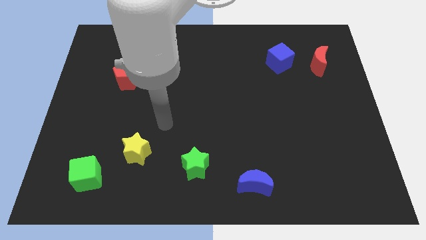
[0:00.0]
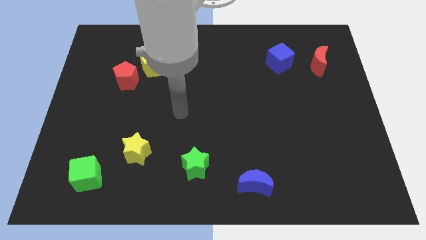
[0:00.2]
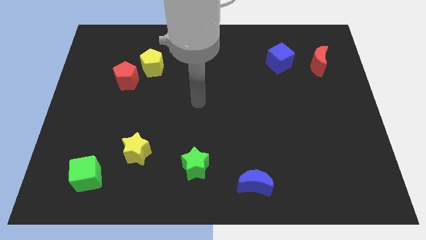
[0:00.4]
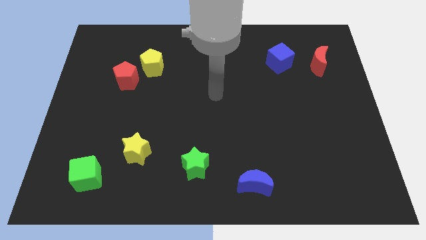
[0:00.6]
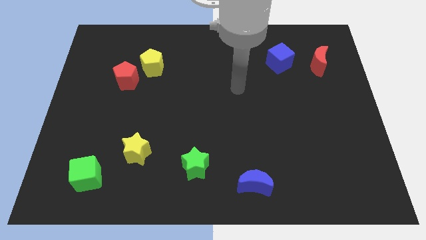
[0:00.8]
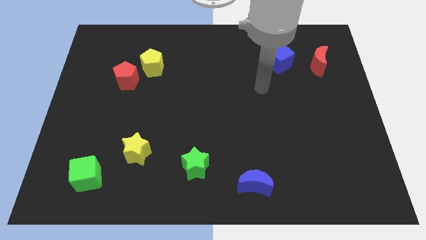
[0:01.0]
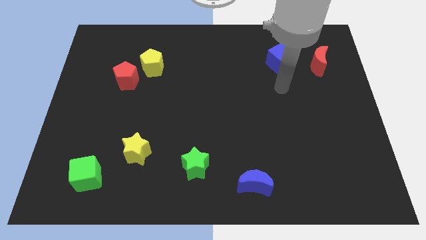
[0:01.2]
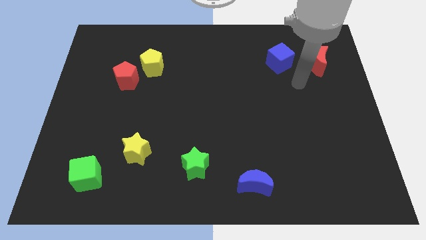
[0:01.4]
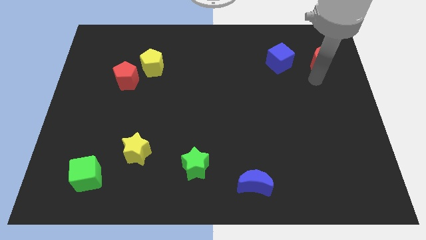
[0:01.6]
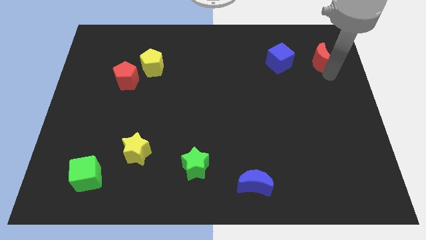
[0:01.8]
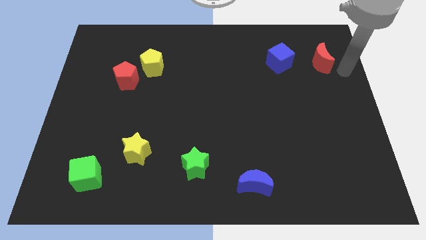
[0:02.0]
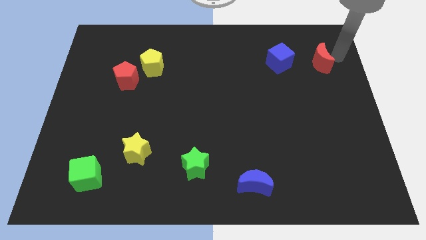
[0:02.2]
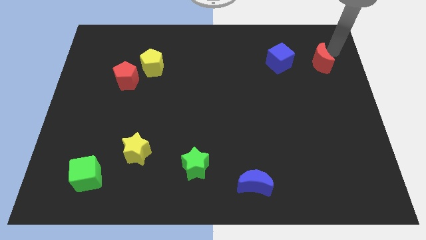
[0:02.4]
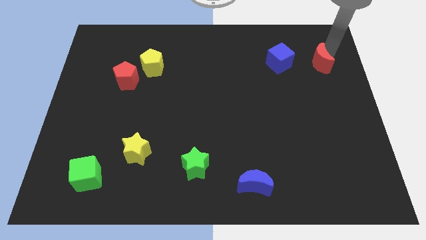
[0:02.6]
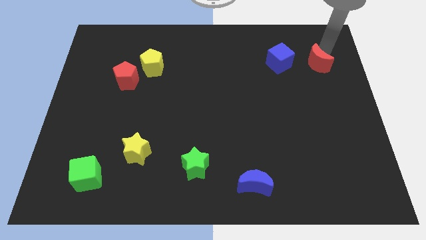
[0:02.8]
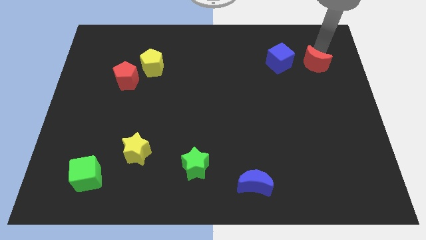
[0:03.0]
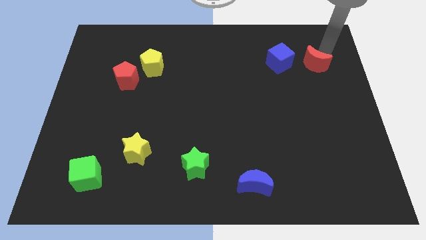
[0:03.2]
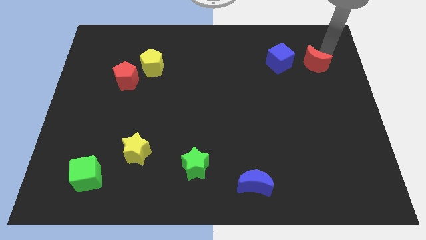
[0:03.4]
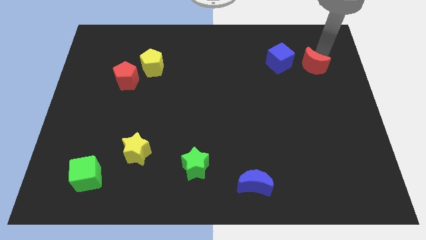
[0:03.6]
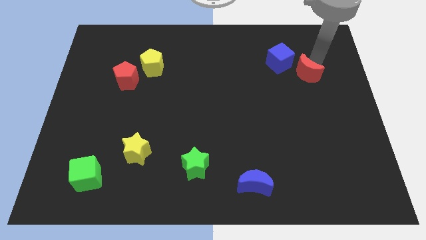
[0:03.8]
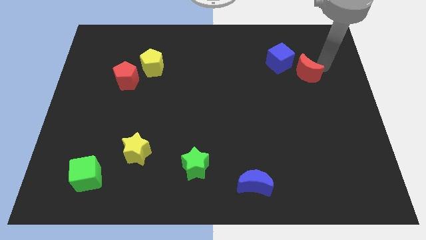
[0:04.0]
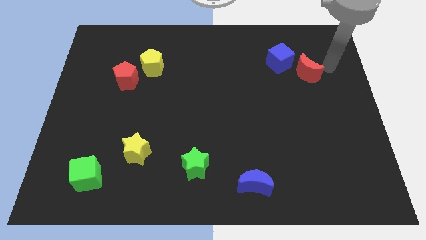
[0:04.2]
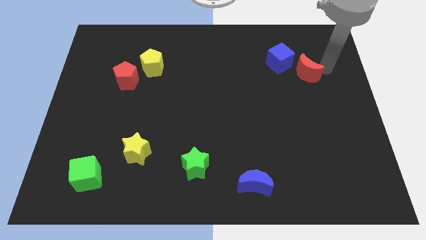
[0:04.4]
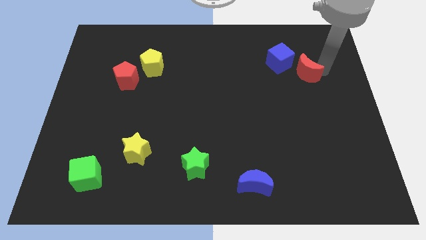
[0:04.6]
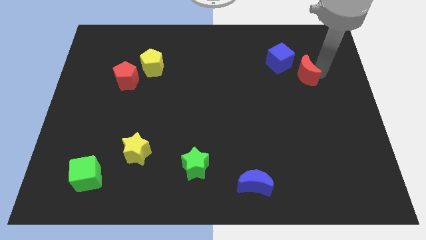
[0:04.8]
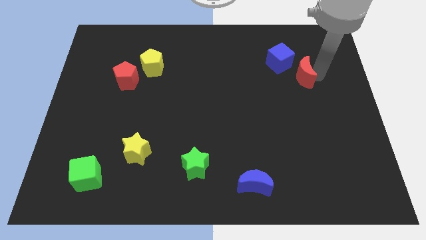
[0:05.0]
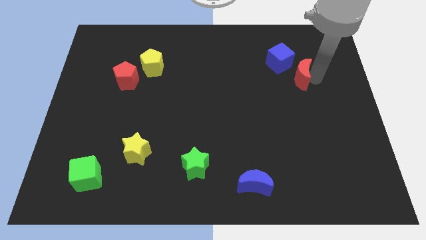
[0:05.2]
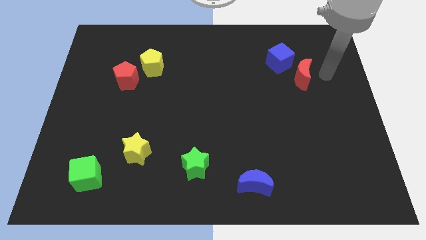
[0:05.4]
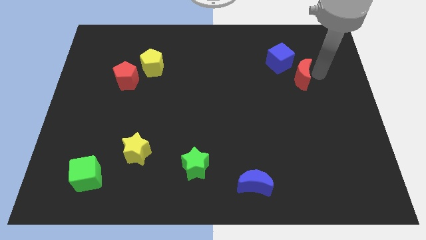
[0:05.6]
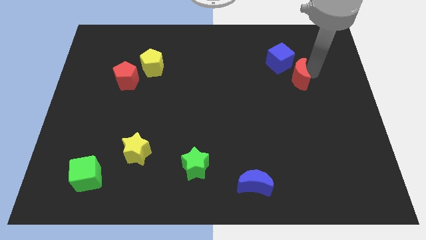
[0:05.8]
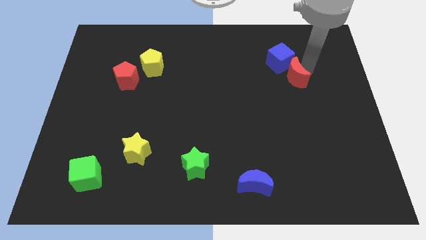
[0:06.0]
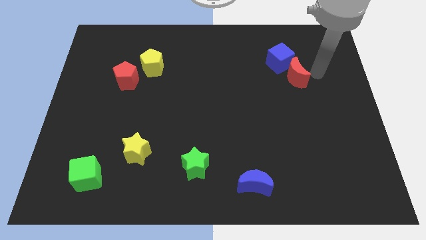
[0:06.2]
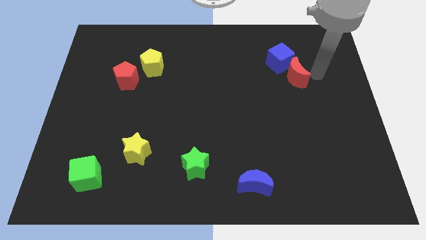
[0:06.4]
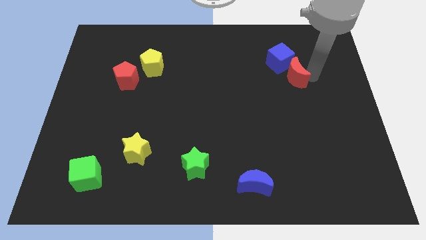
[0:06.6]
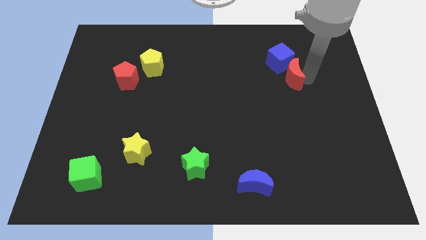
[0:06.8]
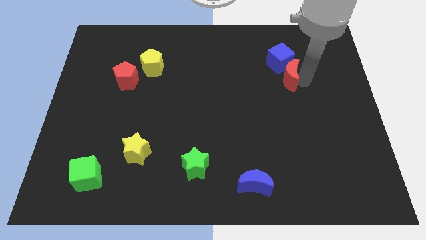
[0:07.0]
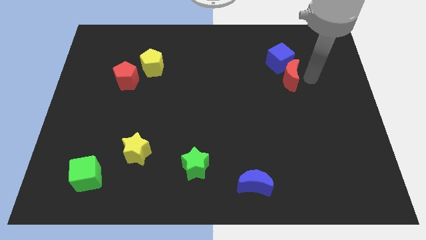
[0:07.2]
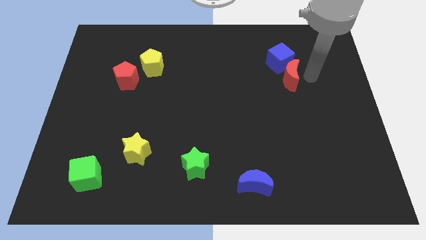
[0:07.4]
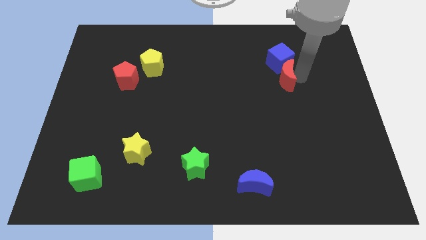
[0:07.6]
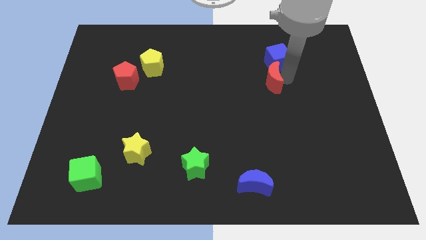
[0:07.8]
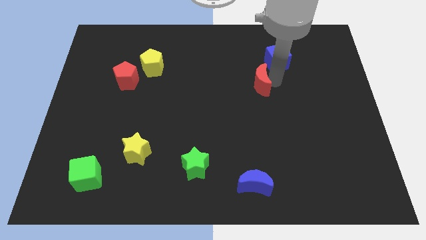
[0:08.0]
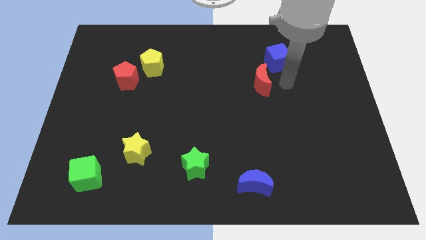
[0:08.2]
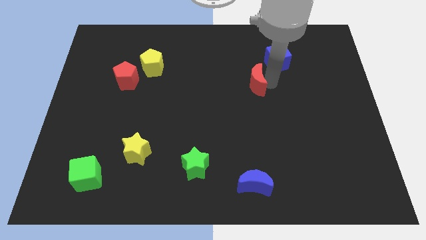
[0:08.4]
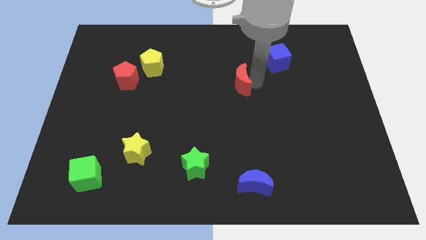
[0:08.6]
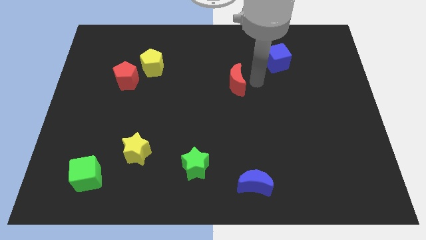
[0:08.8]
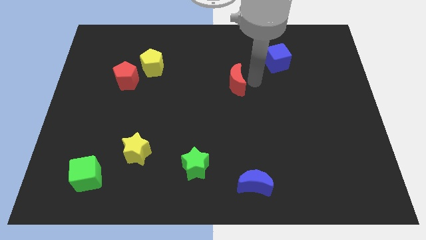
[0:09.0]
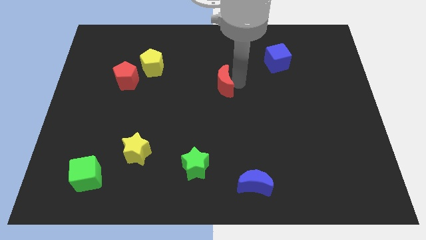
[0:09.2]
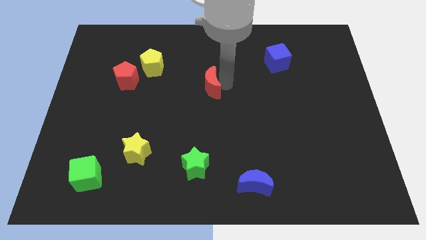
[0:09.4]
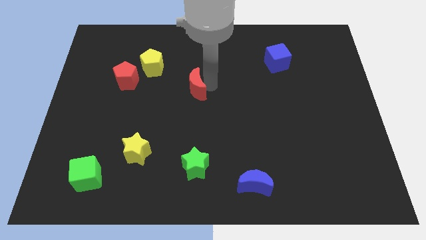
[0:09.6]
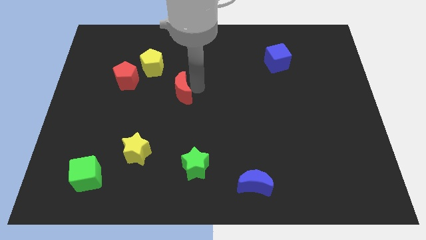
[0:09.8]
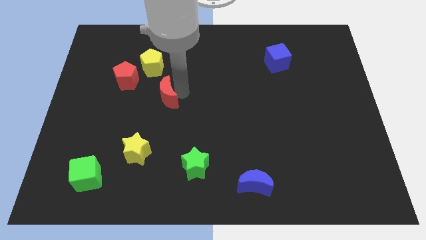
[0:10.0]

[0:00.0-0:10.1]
move the red moon below the yellow pentagon

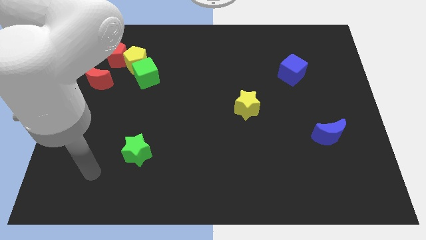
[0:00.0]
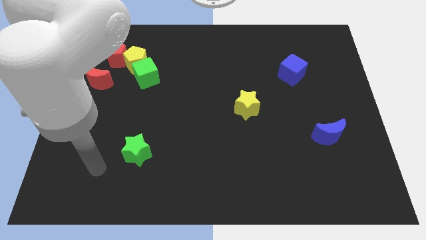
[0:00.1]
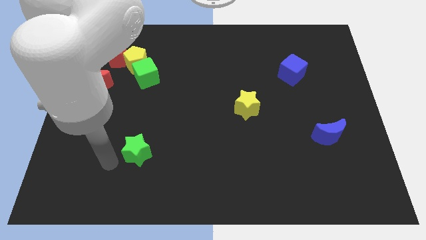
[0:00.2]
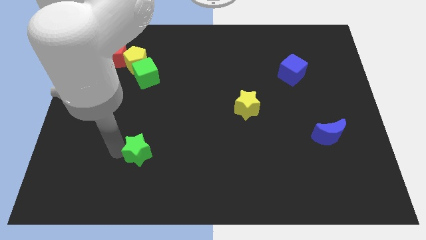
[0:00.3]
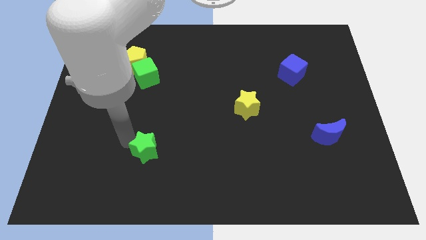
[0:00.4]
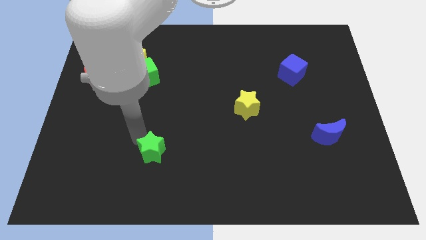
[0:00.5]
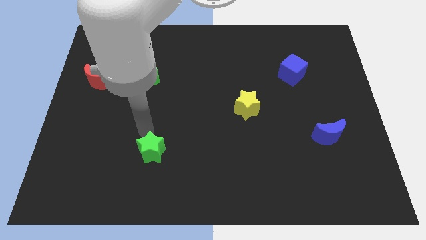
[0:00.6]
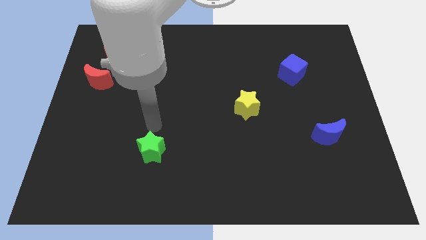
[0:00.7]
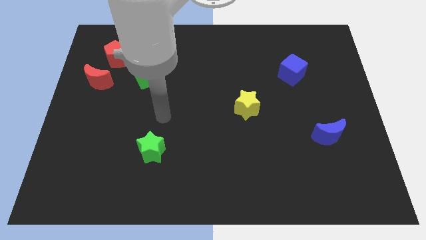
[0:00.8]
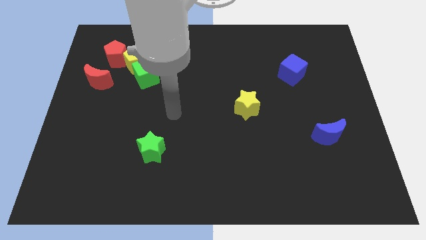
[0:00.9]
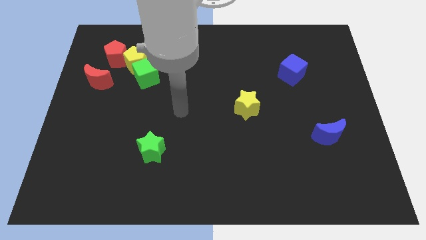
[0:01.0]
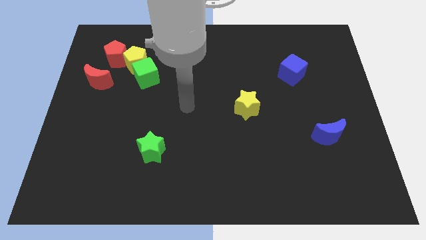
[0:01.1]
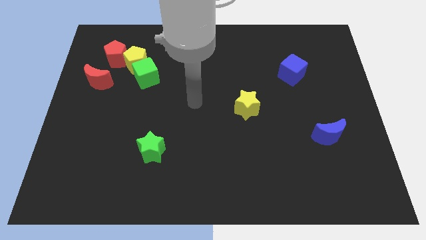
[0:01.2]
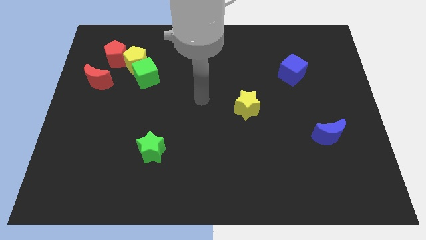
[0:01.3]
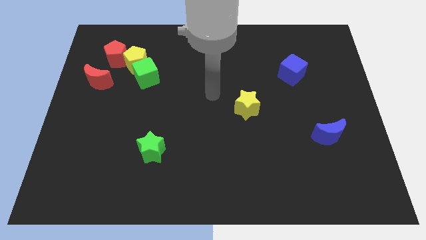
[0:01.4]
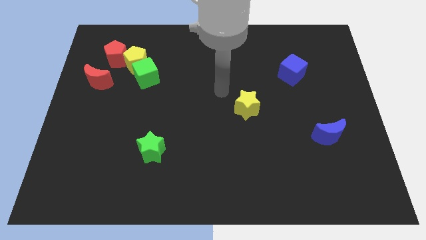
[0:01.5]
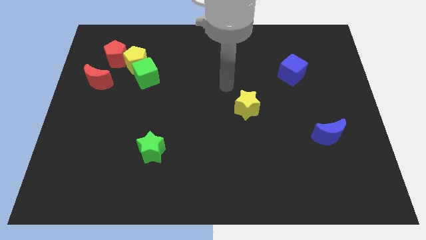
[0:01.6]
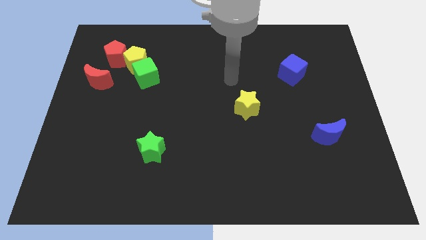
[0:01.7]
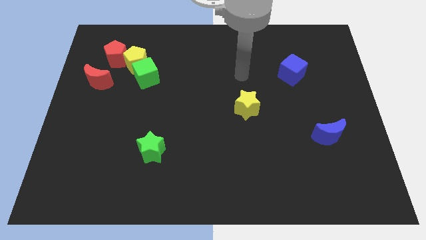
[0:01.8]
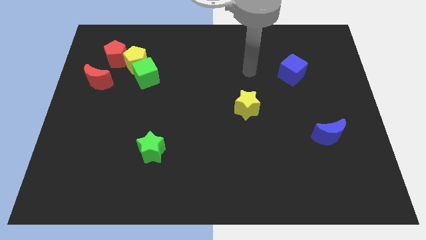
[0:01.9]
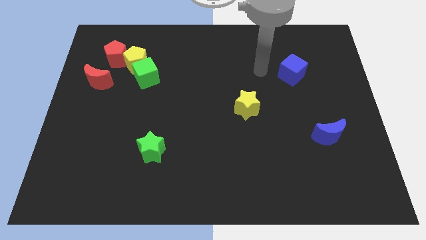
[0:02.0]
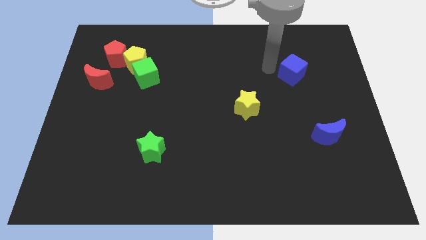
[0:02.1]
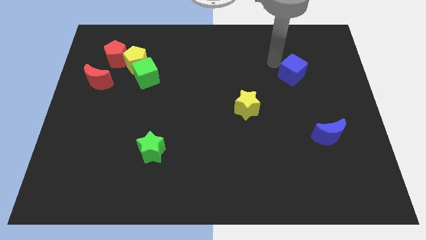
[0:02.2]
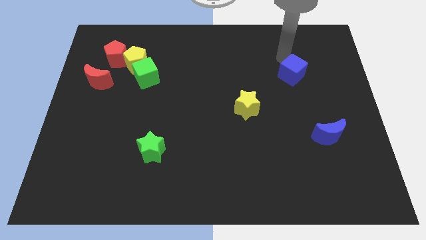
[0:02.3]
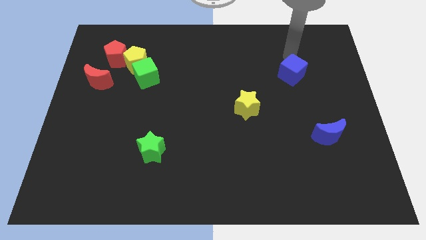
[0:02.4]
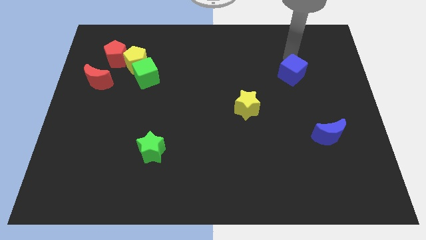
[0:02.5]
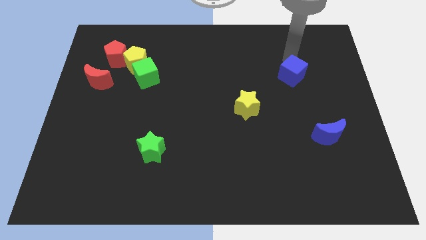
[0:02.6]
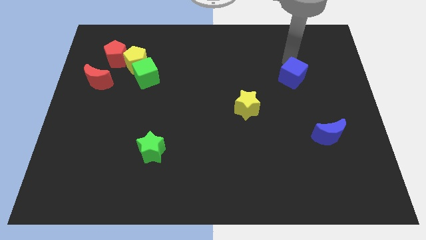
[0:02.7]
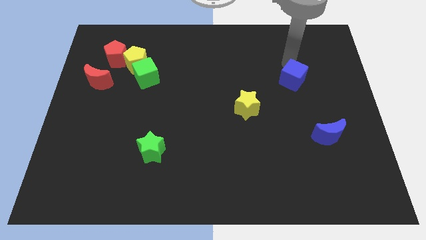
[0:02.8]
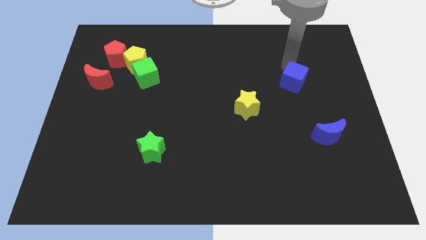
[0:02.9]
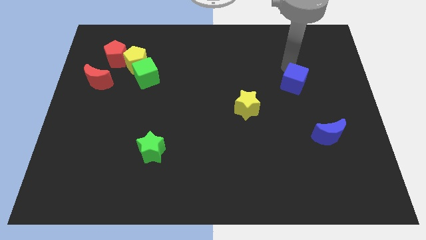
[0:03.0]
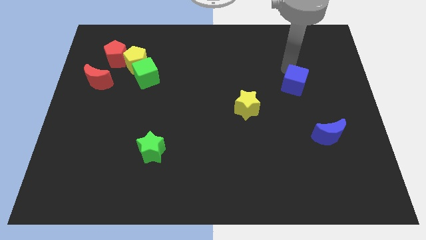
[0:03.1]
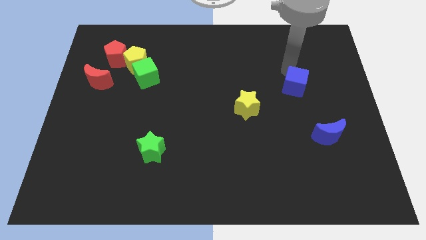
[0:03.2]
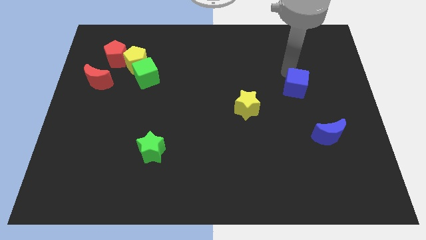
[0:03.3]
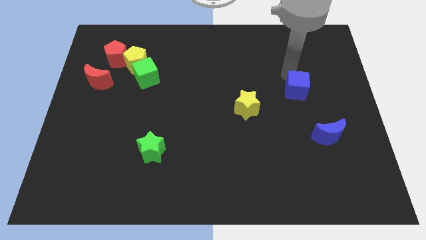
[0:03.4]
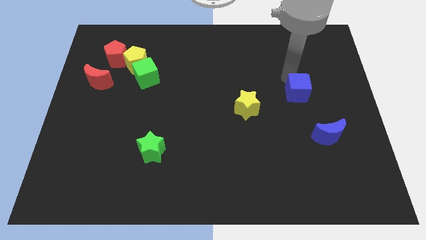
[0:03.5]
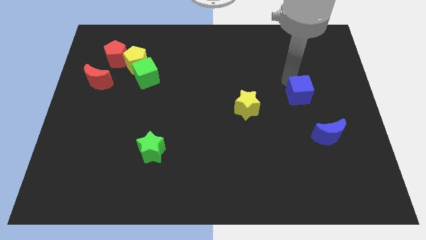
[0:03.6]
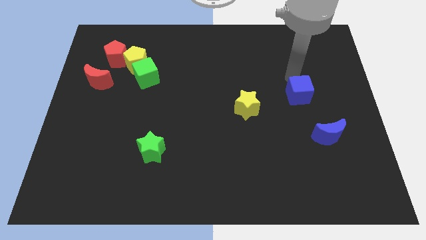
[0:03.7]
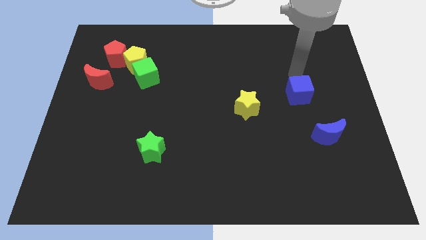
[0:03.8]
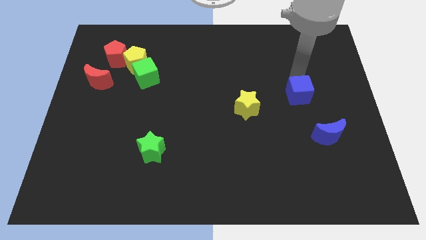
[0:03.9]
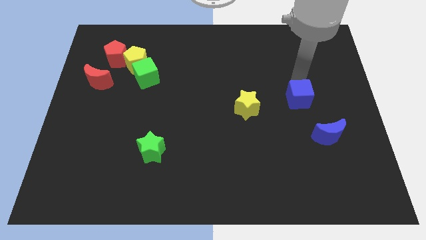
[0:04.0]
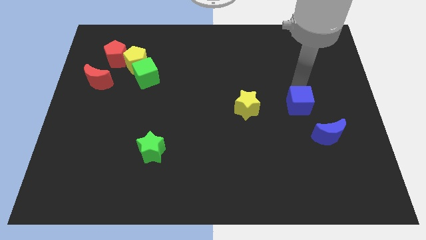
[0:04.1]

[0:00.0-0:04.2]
put the blue cube to the top left of the blue moon
